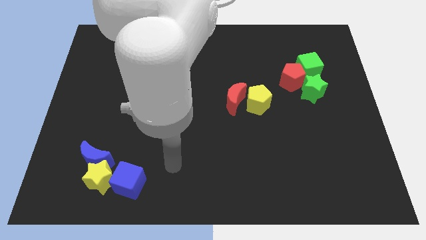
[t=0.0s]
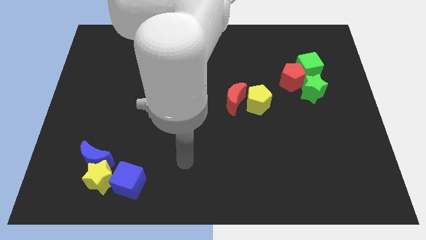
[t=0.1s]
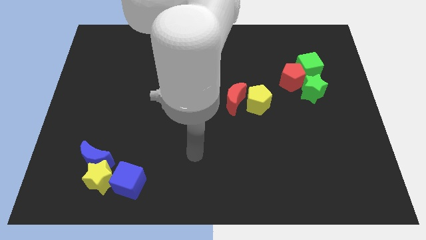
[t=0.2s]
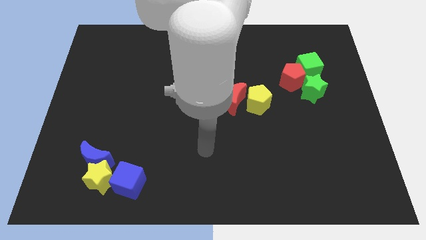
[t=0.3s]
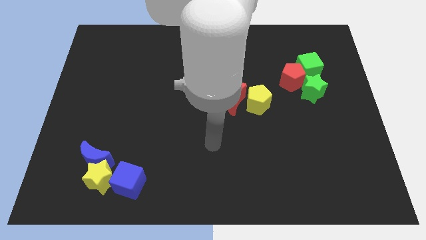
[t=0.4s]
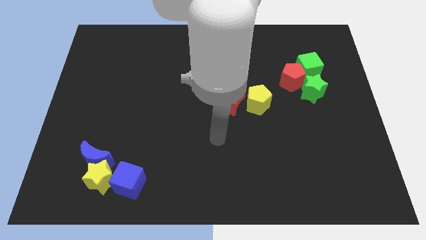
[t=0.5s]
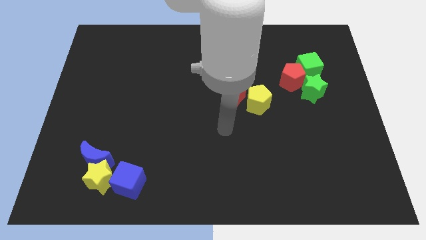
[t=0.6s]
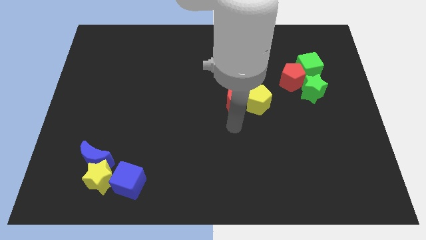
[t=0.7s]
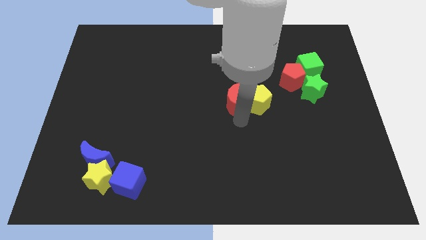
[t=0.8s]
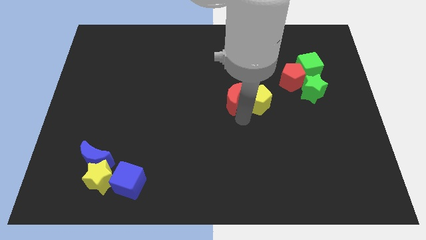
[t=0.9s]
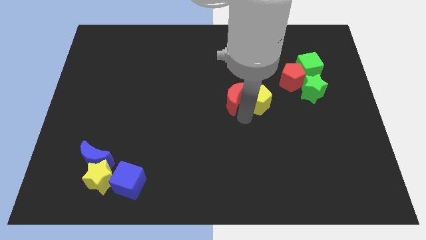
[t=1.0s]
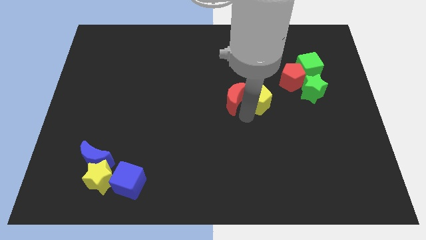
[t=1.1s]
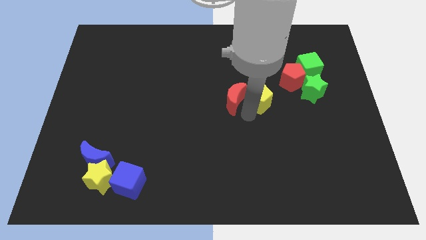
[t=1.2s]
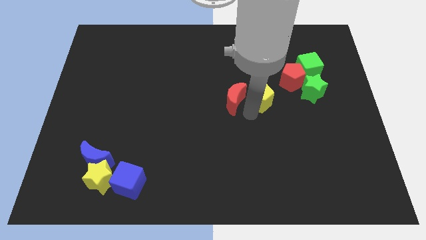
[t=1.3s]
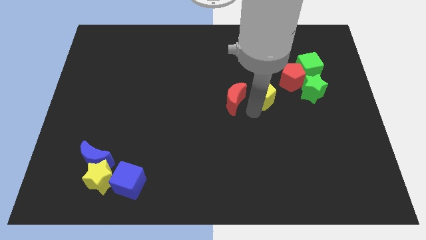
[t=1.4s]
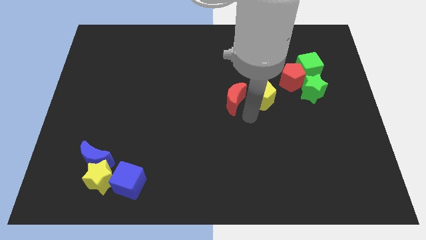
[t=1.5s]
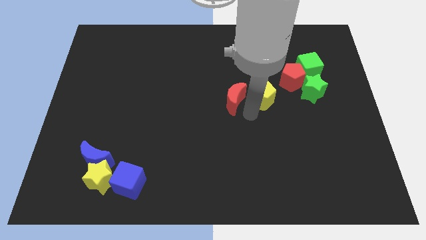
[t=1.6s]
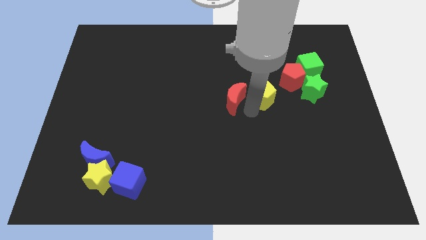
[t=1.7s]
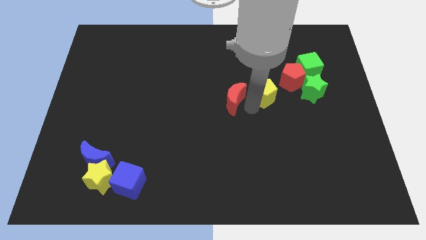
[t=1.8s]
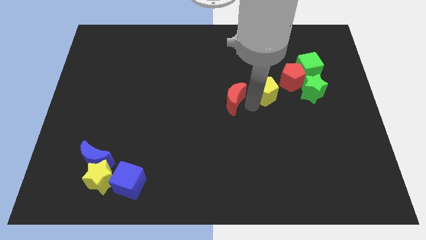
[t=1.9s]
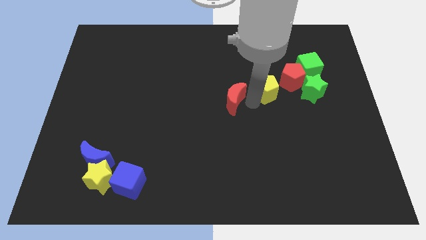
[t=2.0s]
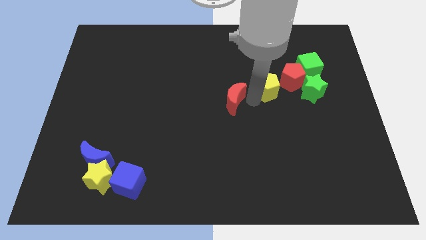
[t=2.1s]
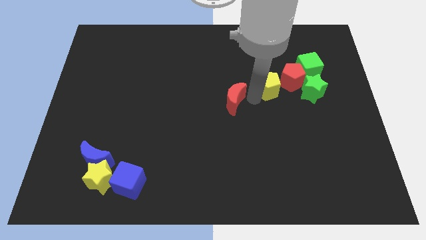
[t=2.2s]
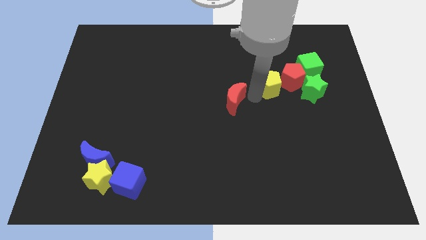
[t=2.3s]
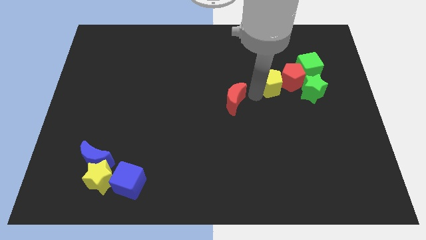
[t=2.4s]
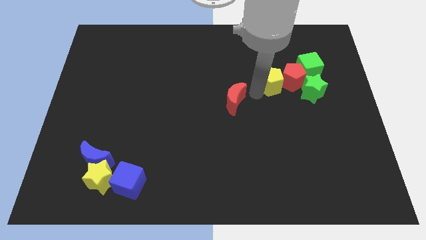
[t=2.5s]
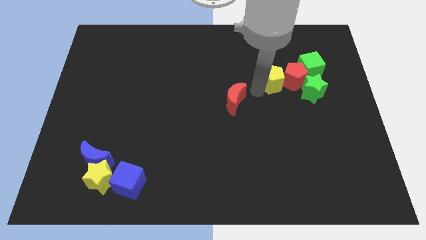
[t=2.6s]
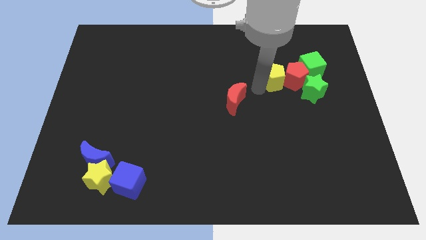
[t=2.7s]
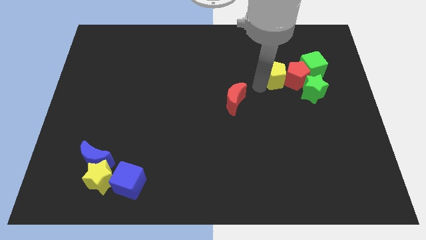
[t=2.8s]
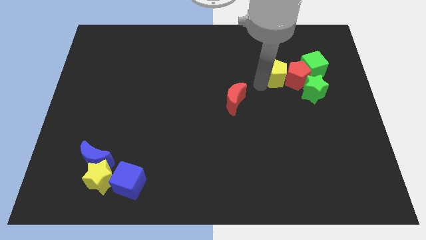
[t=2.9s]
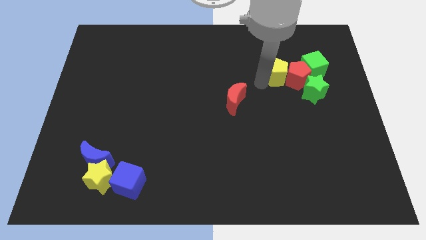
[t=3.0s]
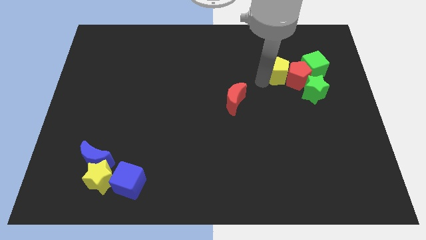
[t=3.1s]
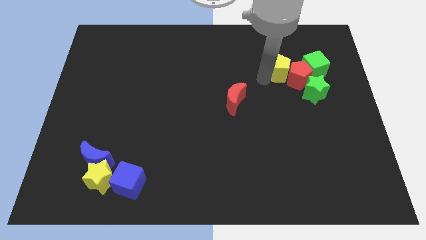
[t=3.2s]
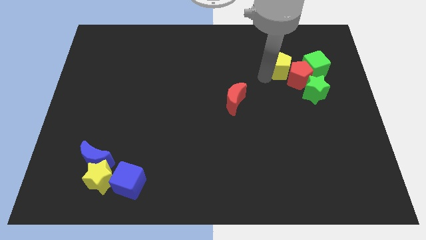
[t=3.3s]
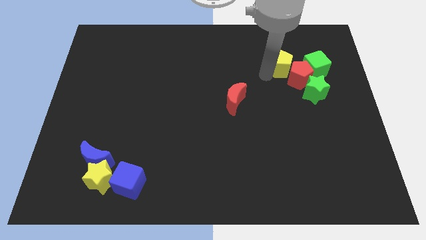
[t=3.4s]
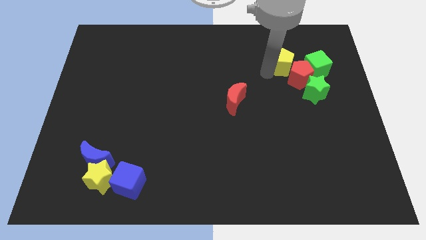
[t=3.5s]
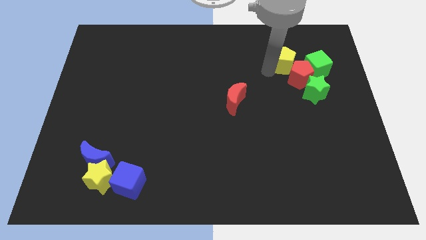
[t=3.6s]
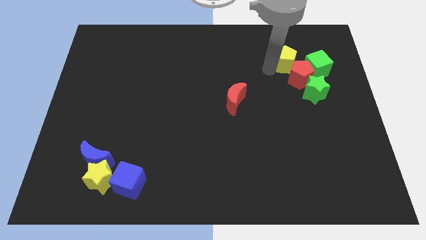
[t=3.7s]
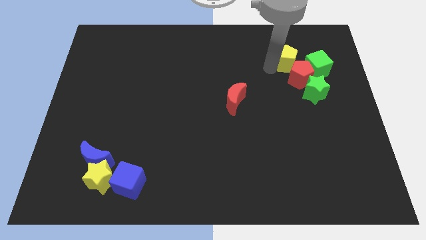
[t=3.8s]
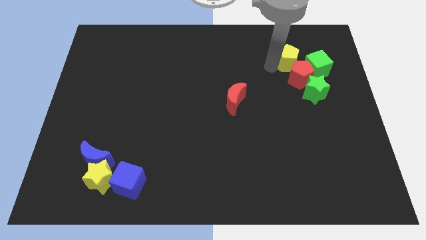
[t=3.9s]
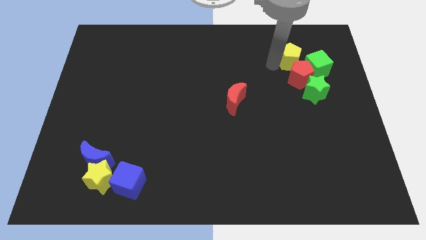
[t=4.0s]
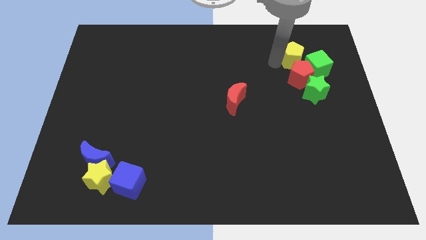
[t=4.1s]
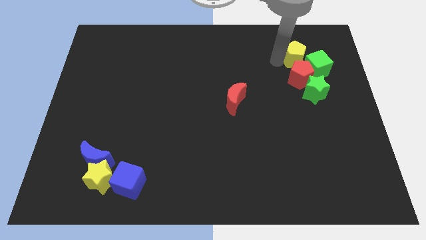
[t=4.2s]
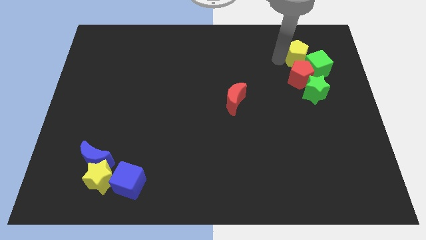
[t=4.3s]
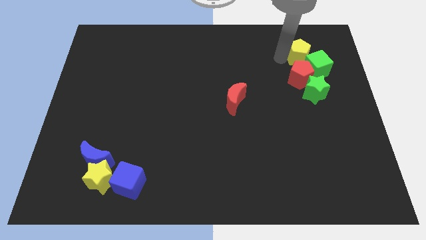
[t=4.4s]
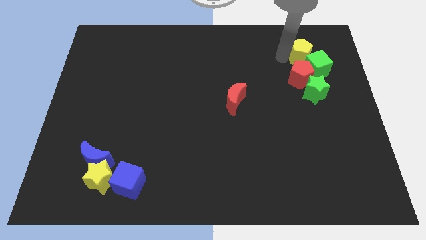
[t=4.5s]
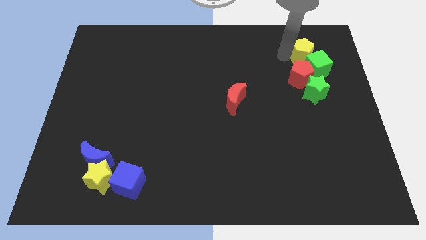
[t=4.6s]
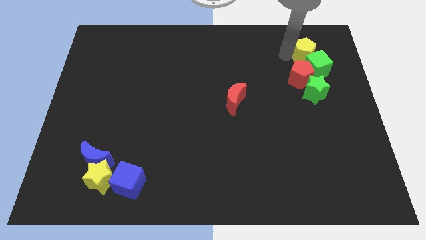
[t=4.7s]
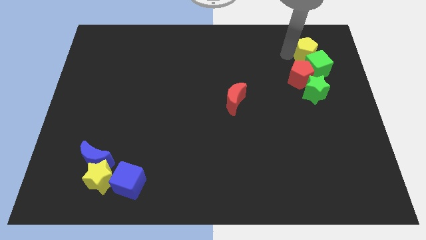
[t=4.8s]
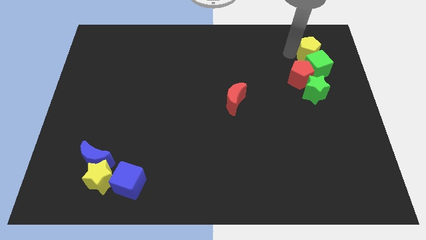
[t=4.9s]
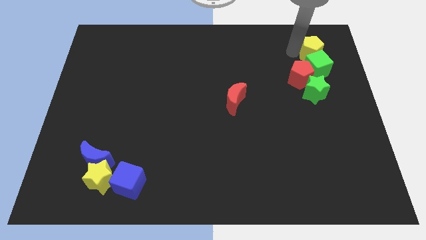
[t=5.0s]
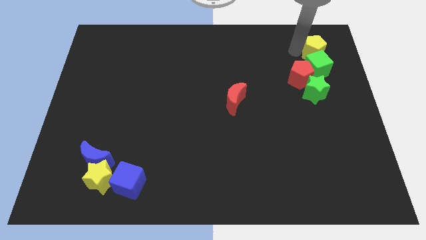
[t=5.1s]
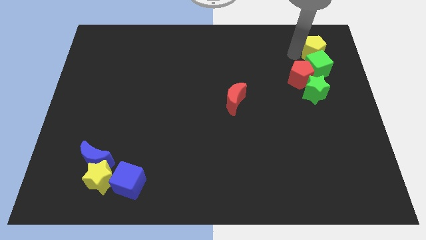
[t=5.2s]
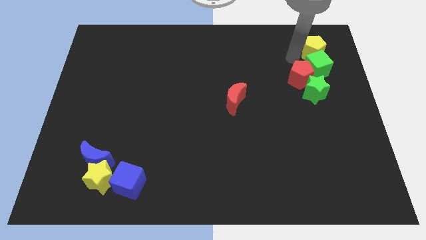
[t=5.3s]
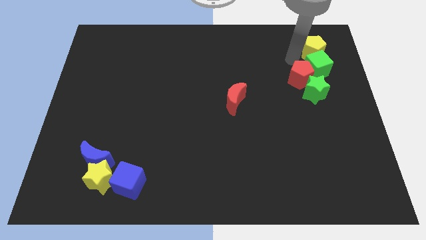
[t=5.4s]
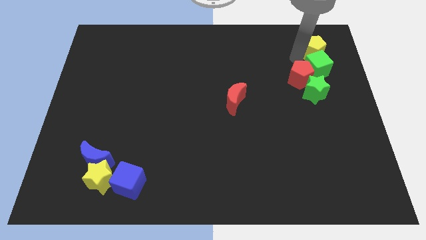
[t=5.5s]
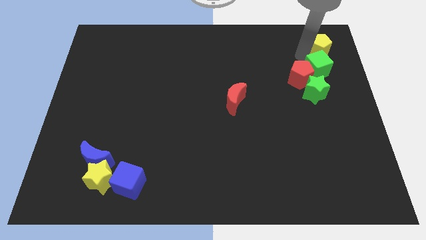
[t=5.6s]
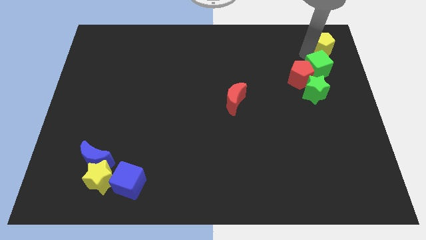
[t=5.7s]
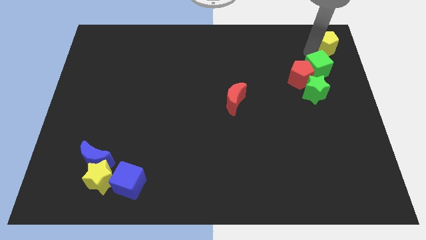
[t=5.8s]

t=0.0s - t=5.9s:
push the yellow pentagon to the upper right corner
